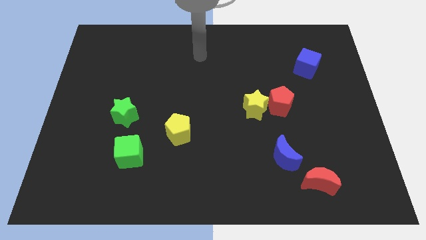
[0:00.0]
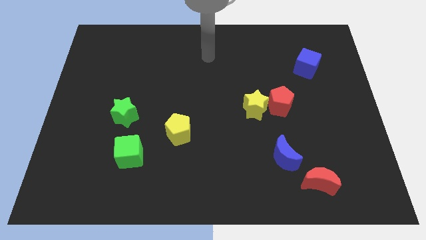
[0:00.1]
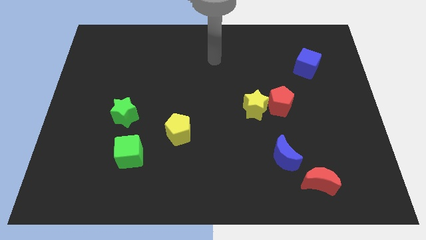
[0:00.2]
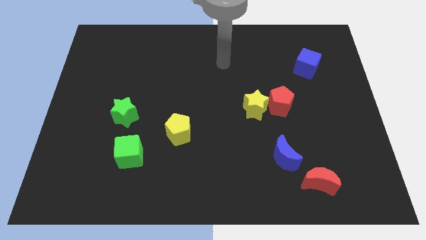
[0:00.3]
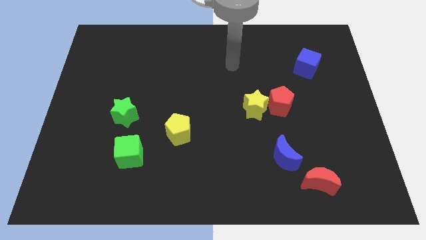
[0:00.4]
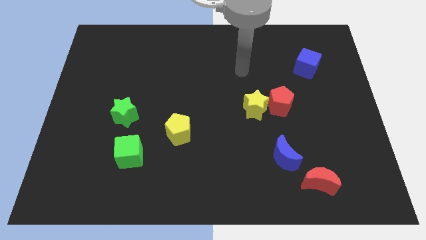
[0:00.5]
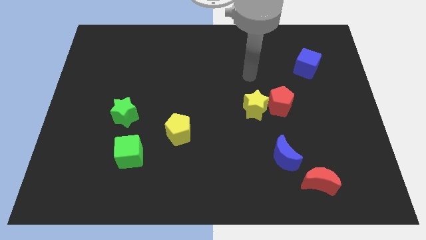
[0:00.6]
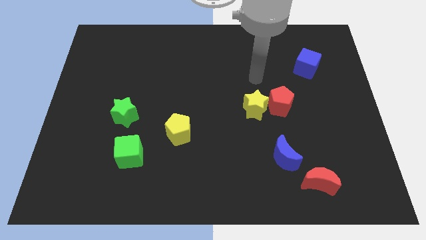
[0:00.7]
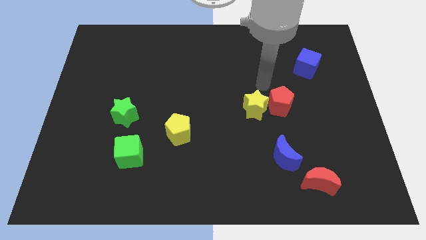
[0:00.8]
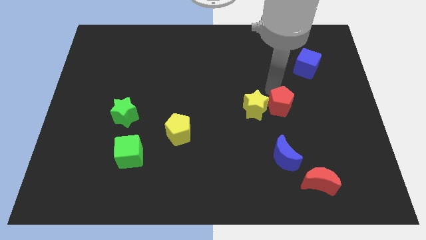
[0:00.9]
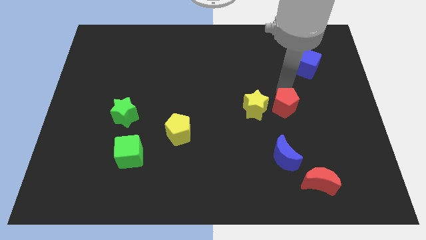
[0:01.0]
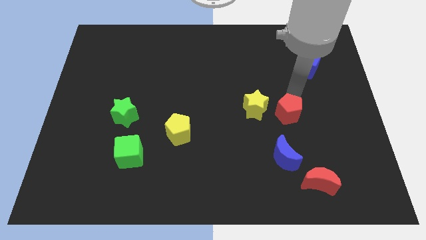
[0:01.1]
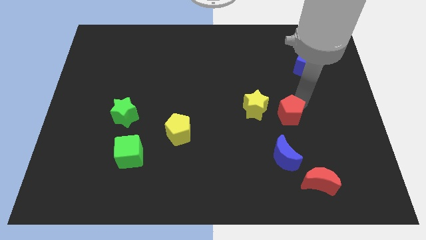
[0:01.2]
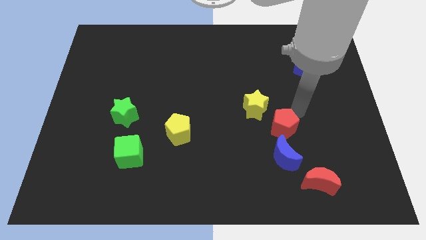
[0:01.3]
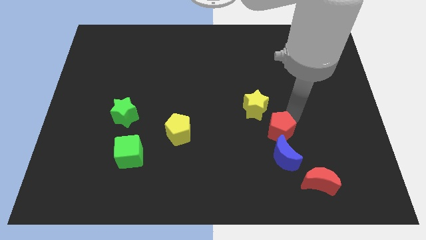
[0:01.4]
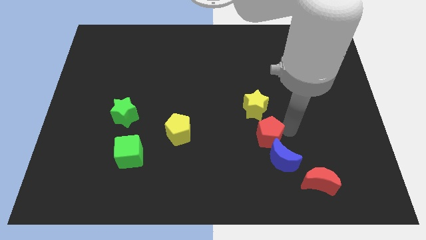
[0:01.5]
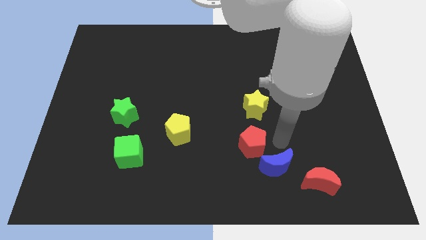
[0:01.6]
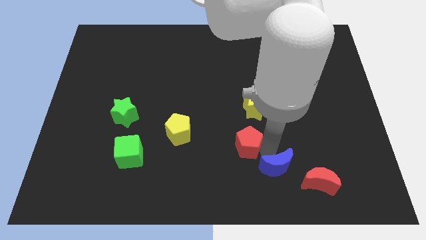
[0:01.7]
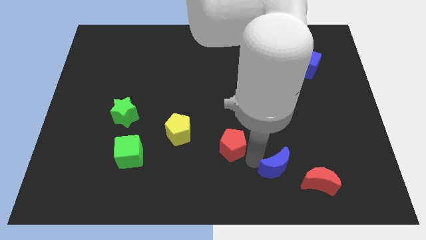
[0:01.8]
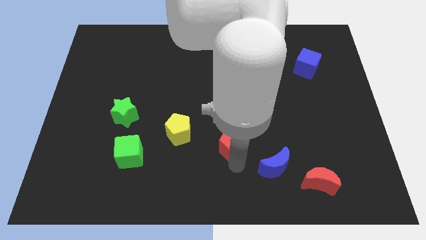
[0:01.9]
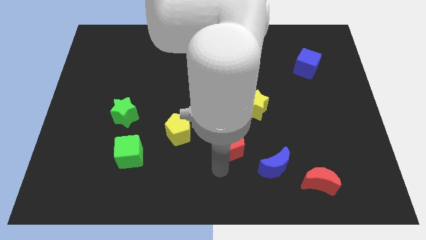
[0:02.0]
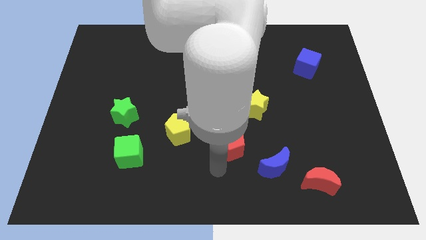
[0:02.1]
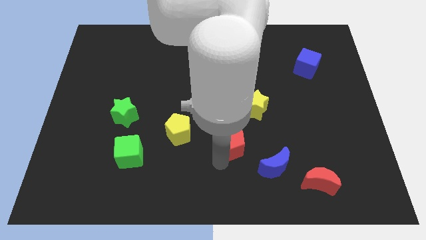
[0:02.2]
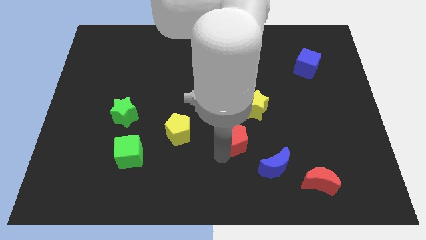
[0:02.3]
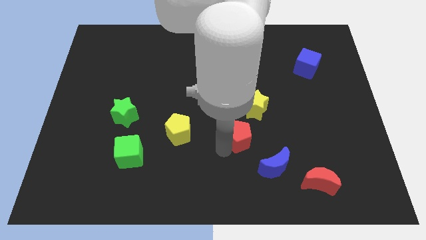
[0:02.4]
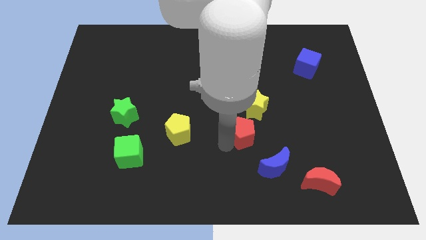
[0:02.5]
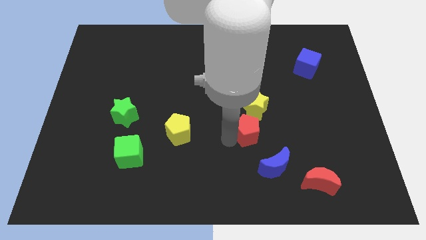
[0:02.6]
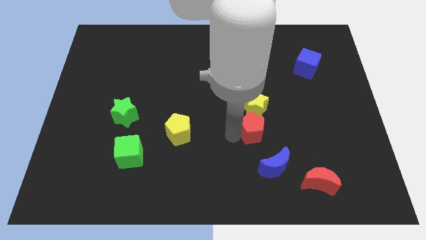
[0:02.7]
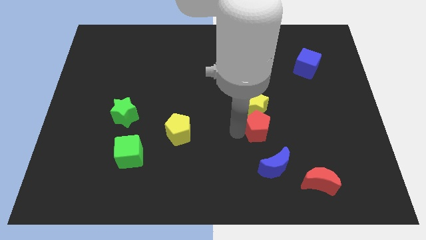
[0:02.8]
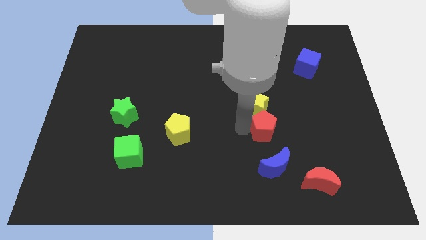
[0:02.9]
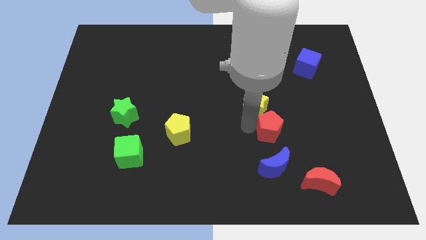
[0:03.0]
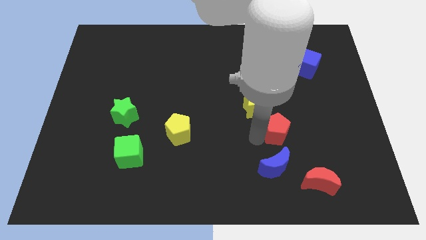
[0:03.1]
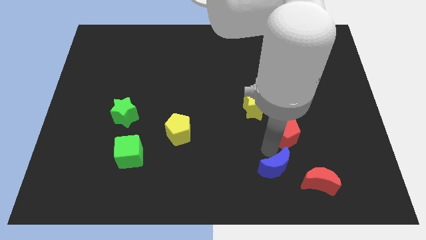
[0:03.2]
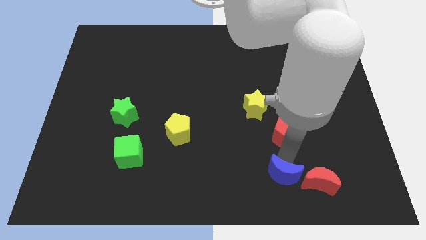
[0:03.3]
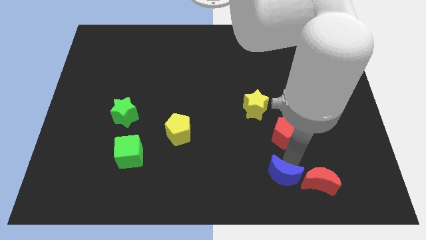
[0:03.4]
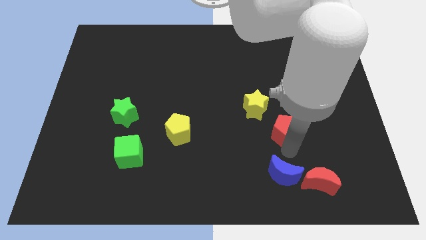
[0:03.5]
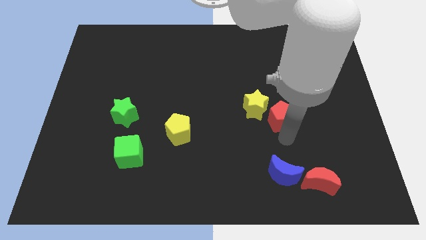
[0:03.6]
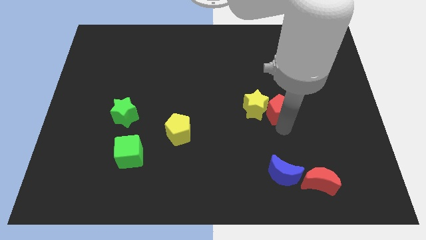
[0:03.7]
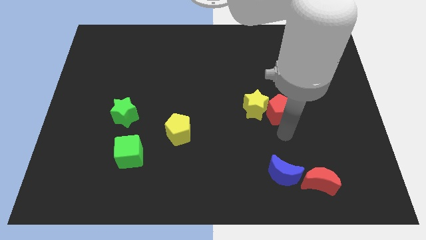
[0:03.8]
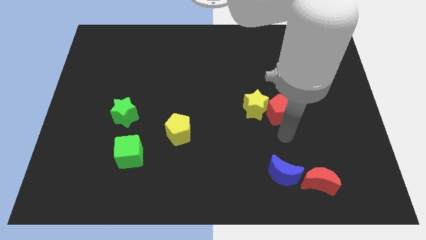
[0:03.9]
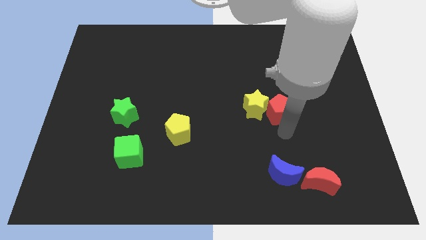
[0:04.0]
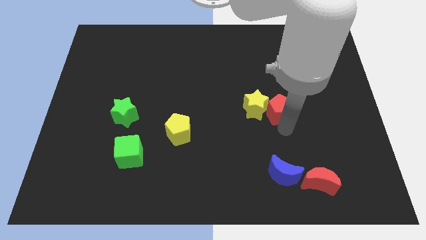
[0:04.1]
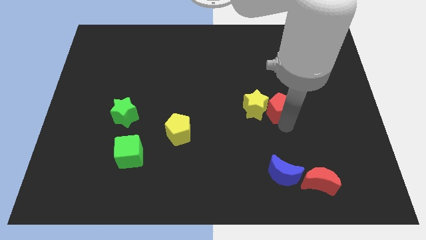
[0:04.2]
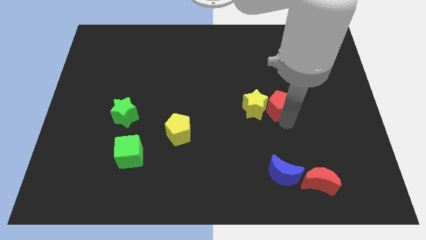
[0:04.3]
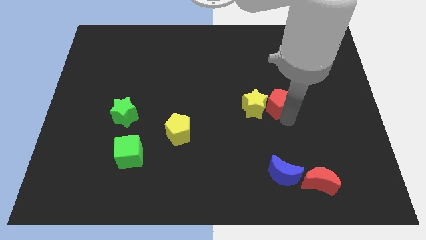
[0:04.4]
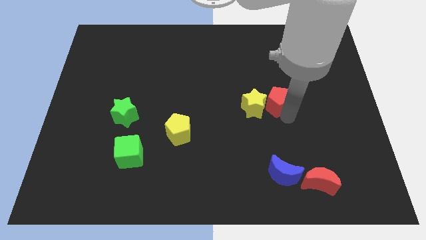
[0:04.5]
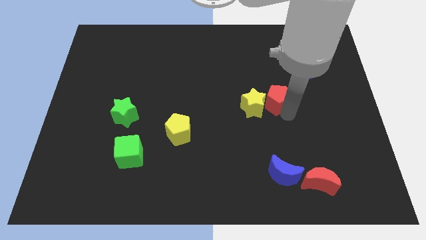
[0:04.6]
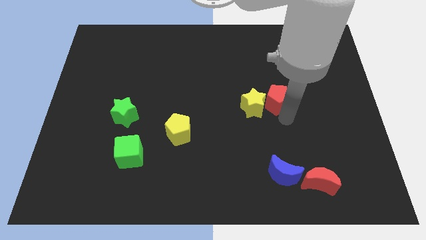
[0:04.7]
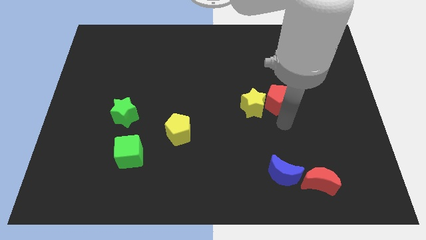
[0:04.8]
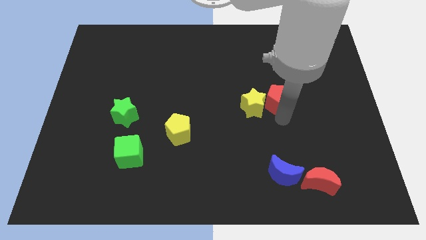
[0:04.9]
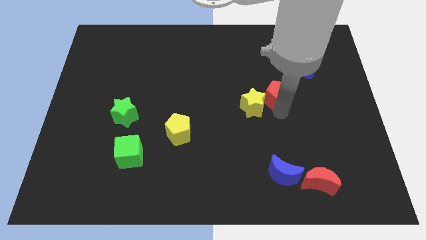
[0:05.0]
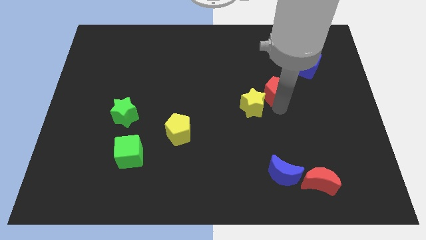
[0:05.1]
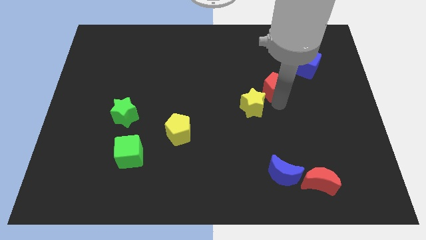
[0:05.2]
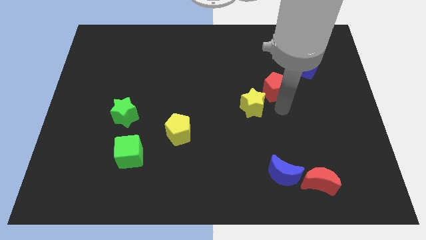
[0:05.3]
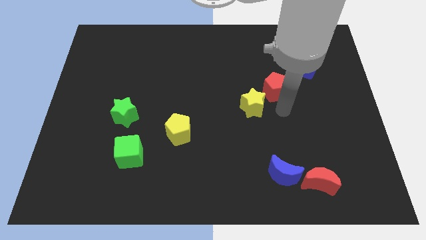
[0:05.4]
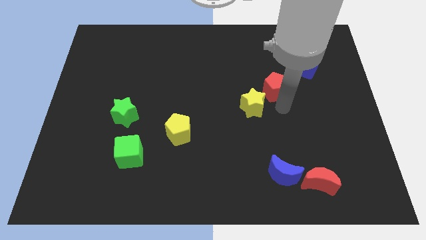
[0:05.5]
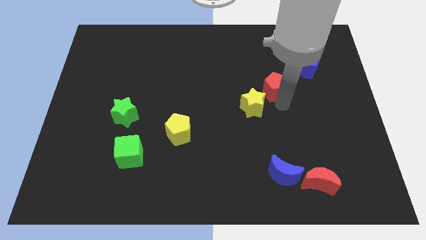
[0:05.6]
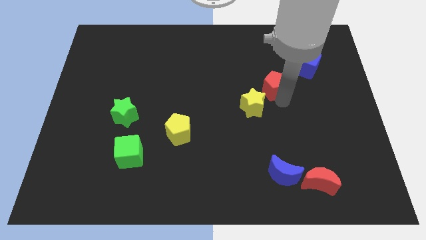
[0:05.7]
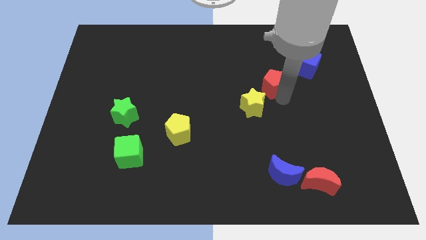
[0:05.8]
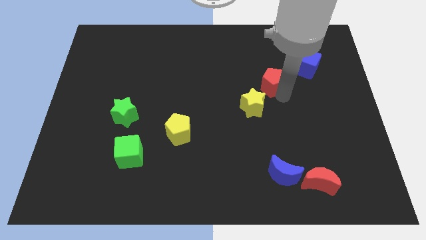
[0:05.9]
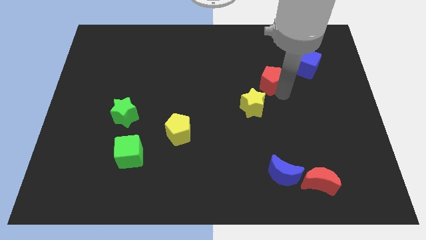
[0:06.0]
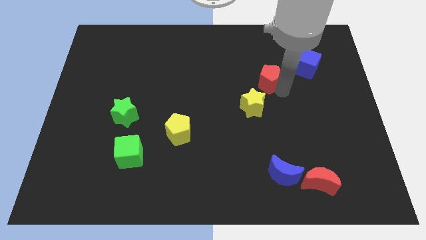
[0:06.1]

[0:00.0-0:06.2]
push the red pentagon to the left side of the blue cube

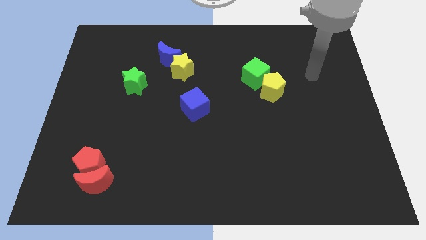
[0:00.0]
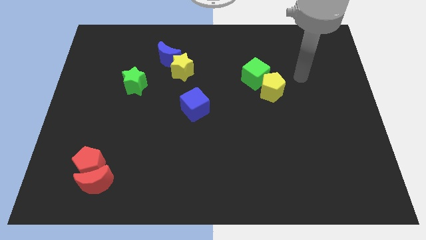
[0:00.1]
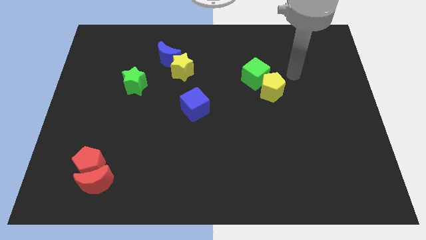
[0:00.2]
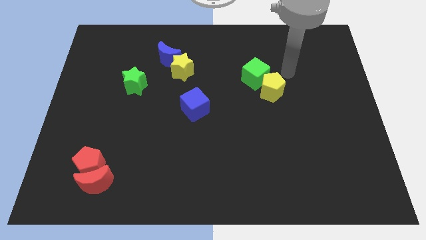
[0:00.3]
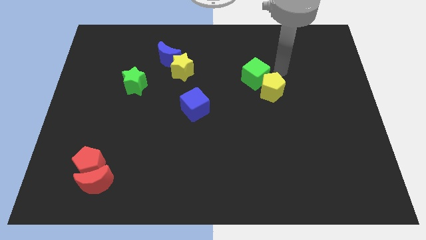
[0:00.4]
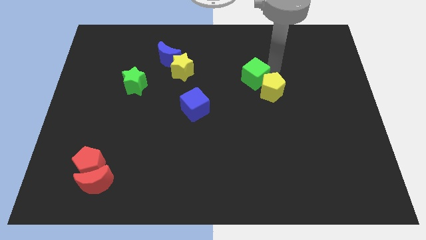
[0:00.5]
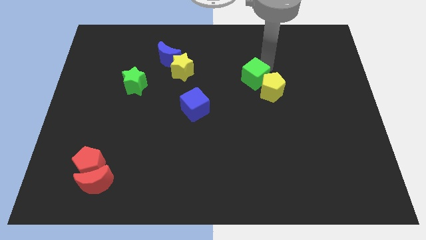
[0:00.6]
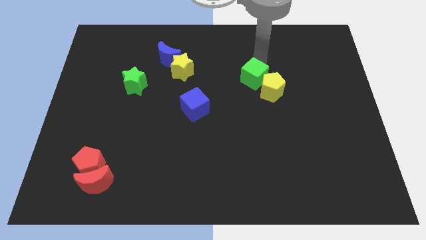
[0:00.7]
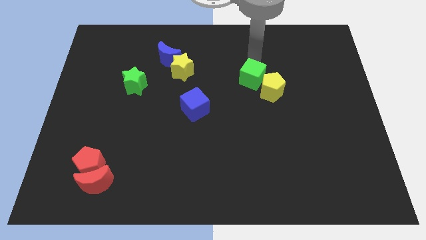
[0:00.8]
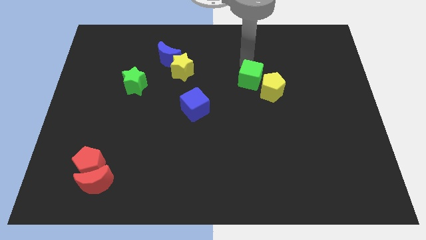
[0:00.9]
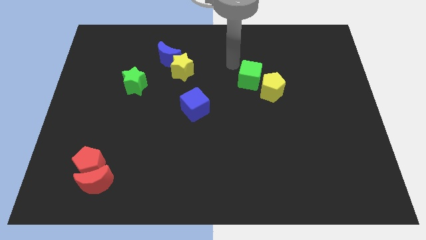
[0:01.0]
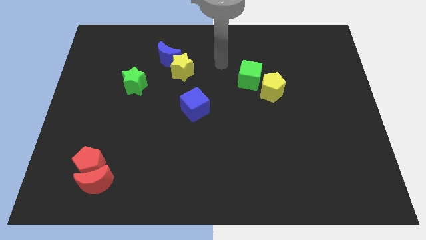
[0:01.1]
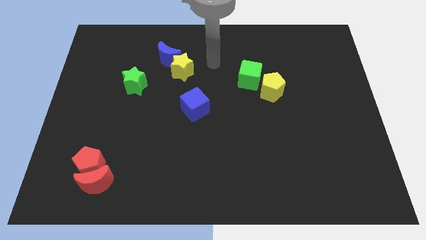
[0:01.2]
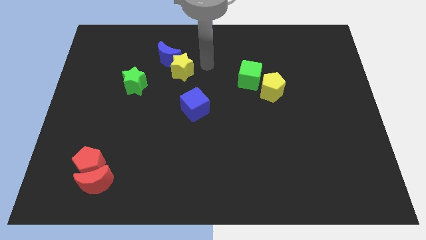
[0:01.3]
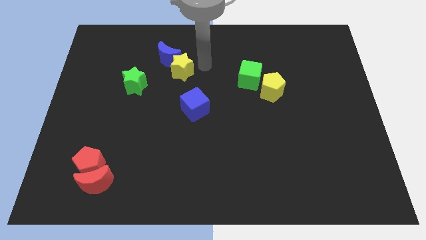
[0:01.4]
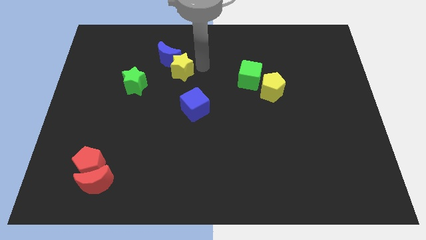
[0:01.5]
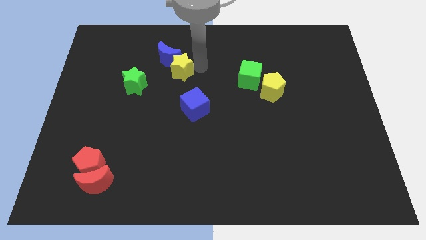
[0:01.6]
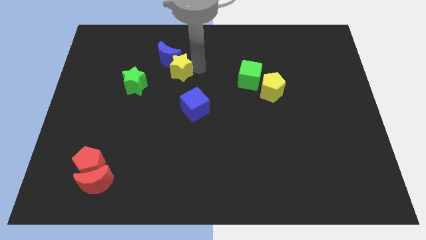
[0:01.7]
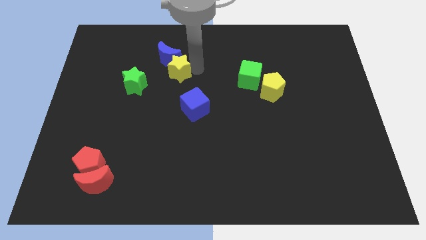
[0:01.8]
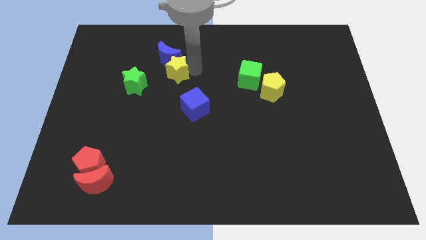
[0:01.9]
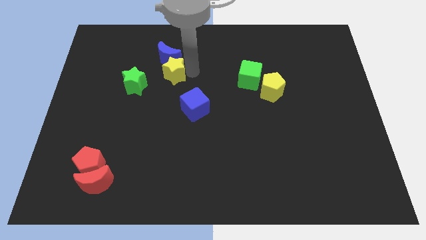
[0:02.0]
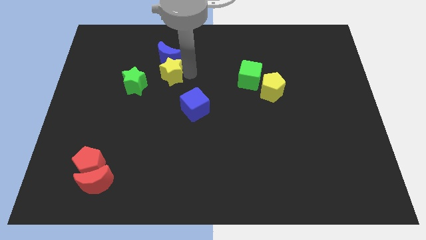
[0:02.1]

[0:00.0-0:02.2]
slide the yellow star to the bottom left side of the blue moon

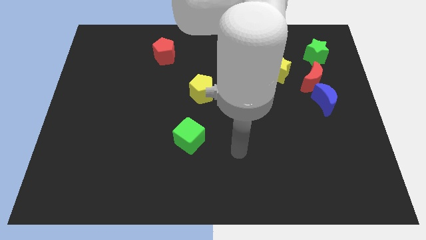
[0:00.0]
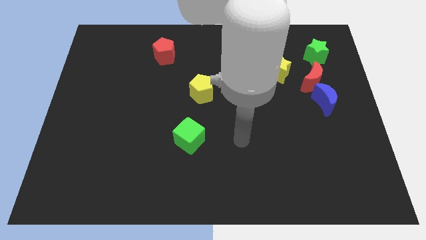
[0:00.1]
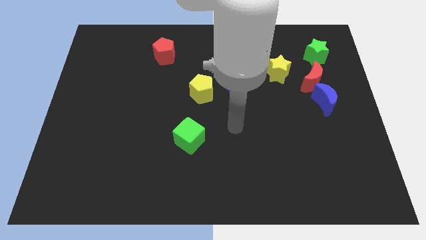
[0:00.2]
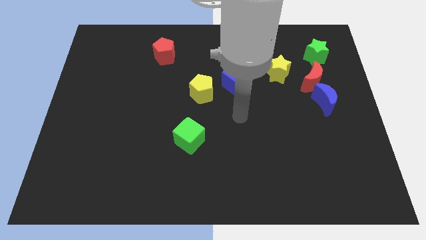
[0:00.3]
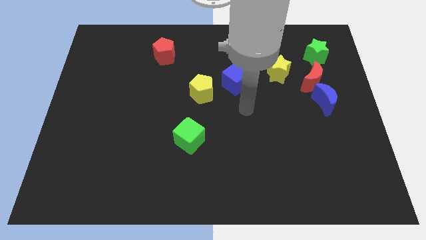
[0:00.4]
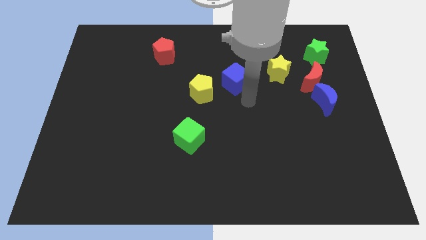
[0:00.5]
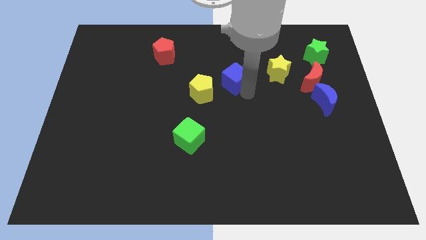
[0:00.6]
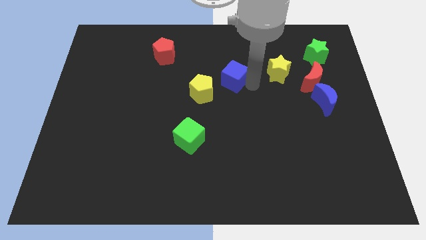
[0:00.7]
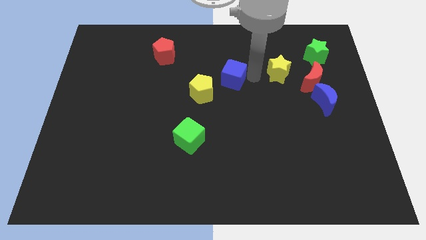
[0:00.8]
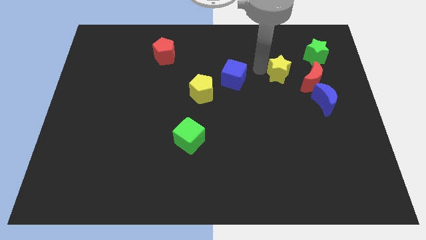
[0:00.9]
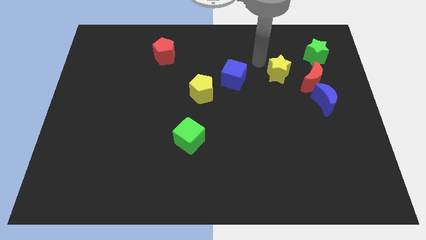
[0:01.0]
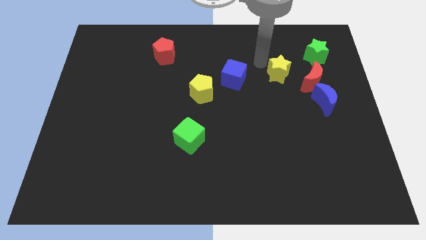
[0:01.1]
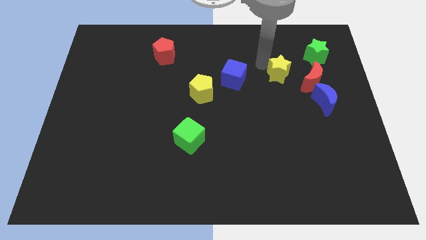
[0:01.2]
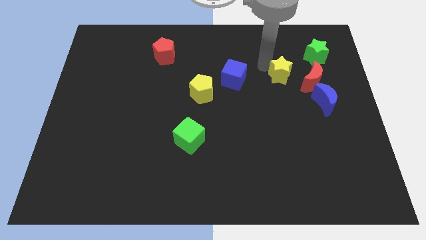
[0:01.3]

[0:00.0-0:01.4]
put the yellow star to the top left of the blue moon
